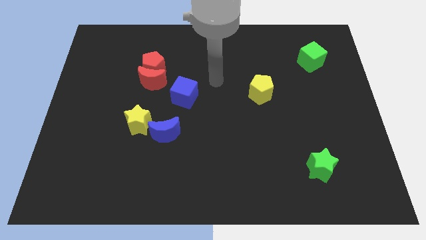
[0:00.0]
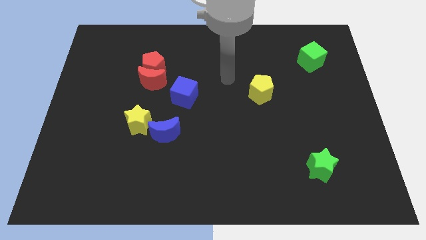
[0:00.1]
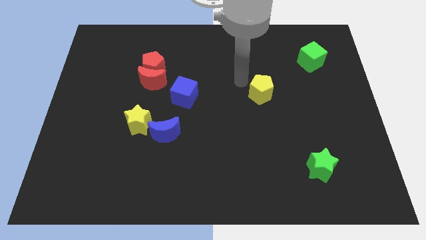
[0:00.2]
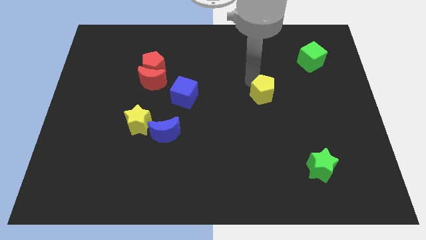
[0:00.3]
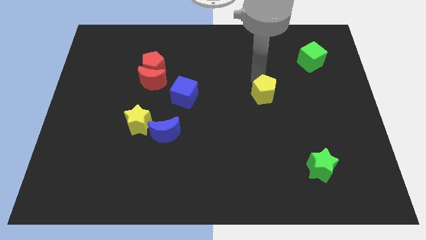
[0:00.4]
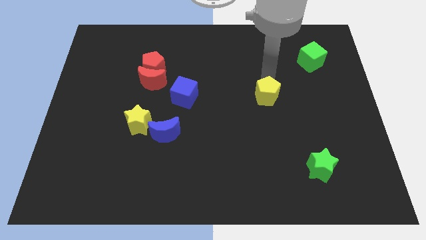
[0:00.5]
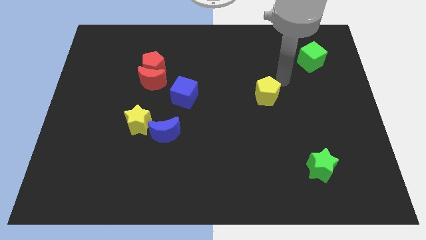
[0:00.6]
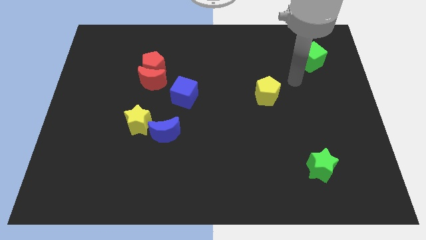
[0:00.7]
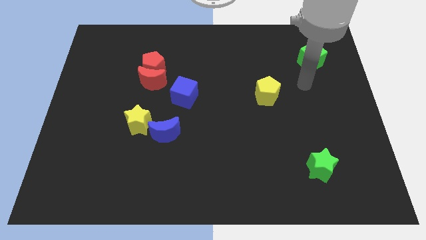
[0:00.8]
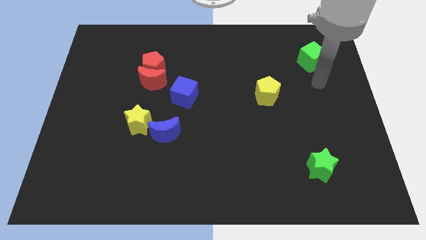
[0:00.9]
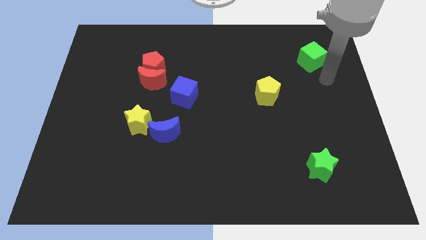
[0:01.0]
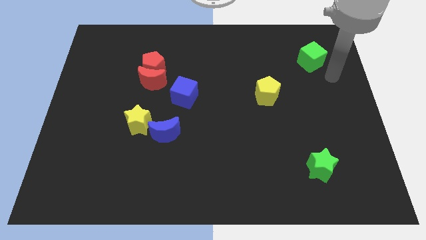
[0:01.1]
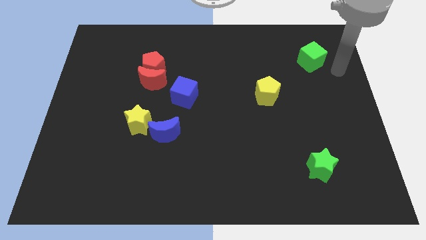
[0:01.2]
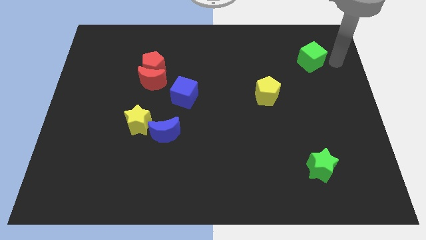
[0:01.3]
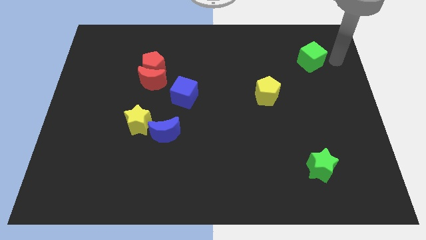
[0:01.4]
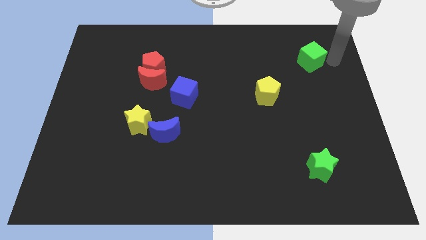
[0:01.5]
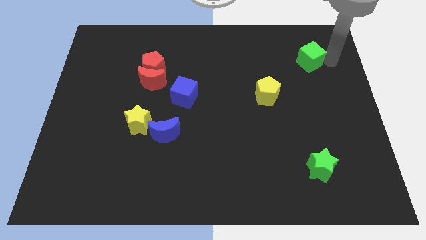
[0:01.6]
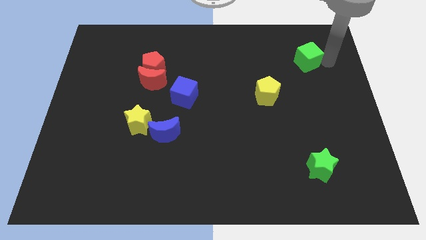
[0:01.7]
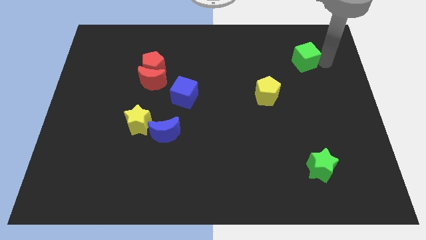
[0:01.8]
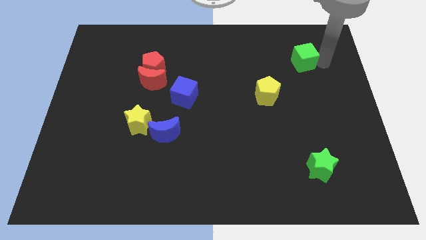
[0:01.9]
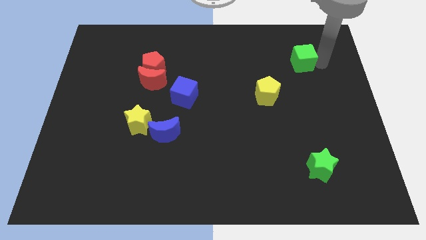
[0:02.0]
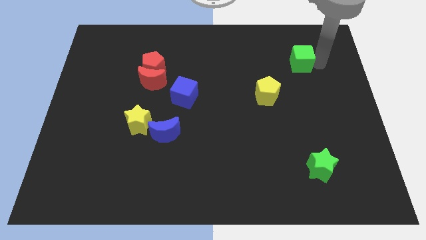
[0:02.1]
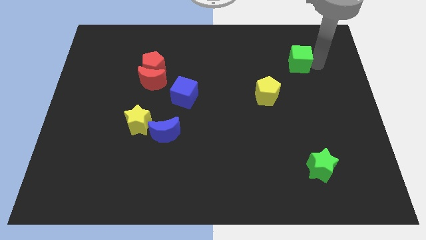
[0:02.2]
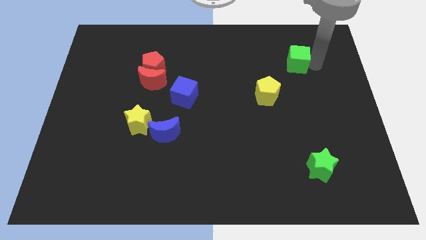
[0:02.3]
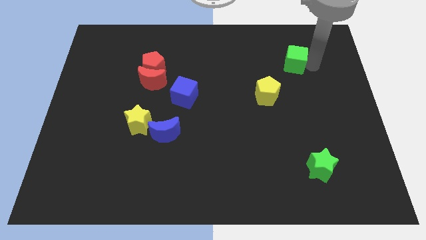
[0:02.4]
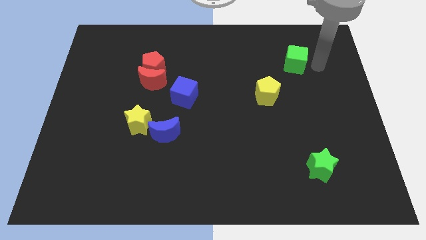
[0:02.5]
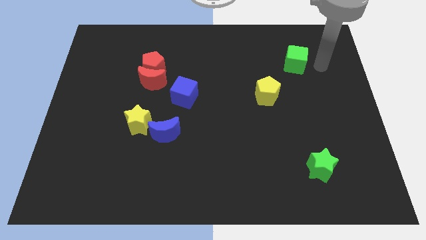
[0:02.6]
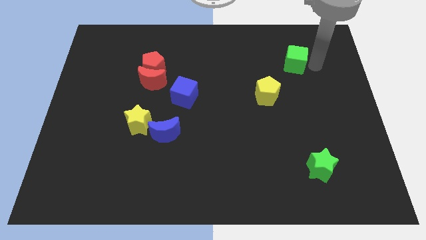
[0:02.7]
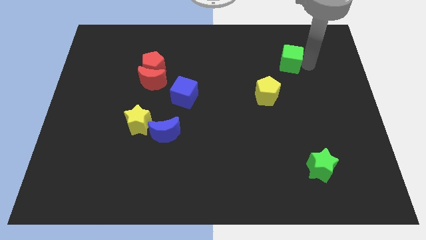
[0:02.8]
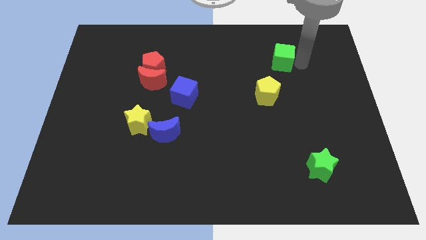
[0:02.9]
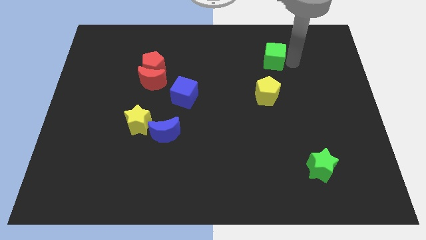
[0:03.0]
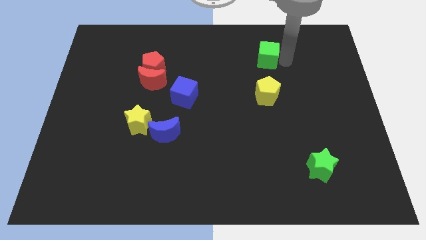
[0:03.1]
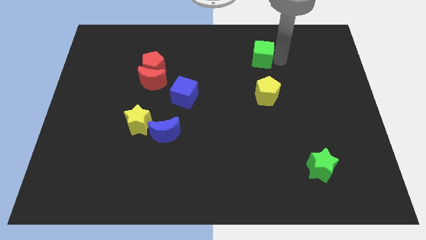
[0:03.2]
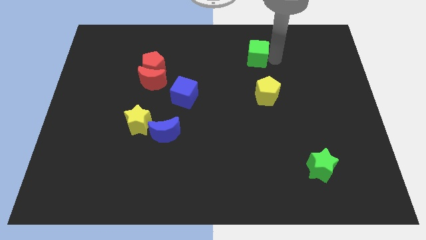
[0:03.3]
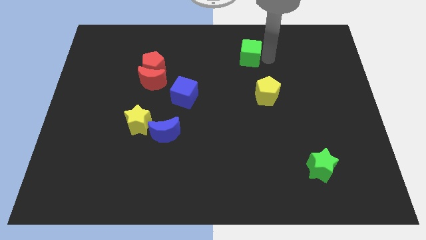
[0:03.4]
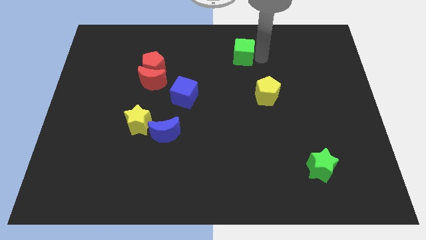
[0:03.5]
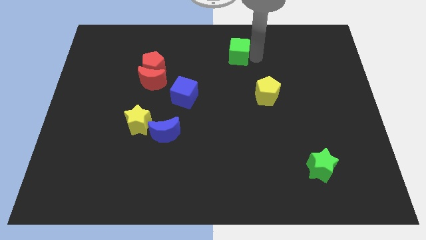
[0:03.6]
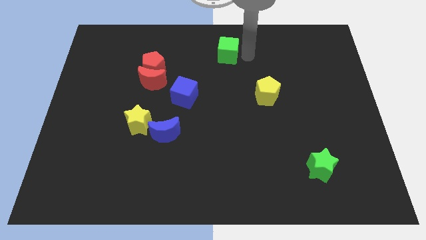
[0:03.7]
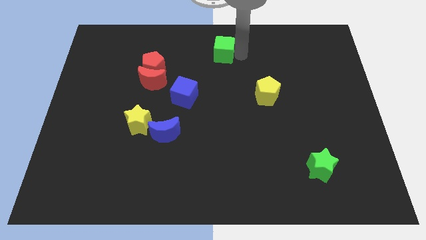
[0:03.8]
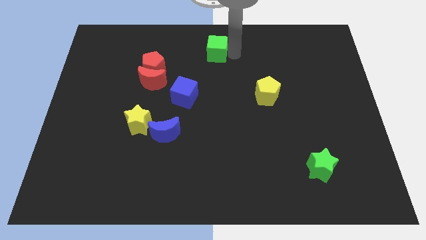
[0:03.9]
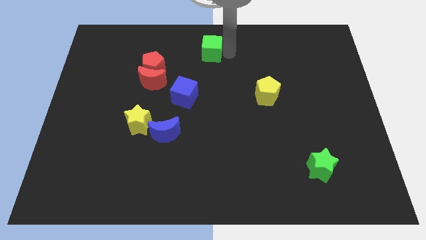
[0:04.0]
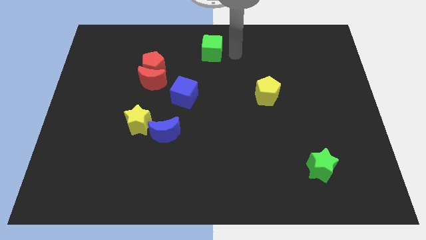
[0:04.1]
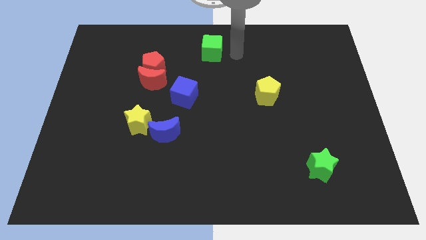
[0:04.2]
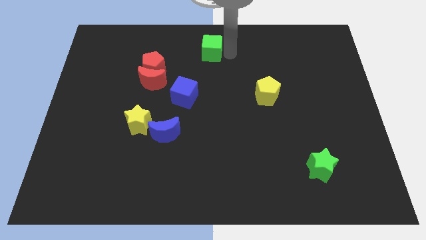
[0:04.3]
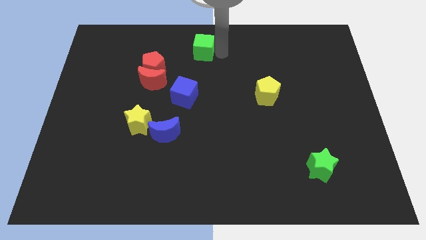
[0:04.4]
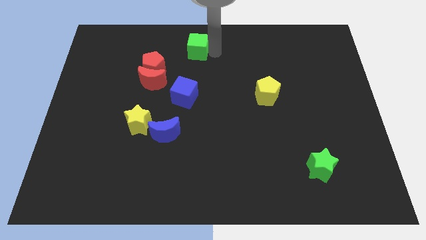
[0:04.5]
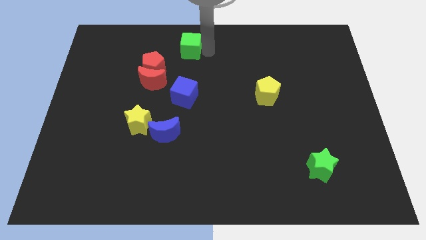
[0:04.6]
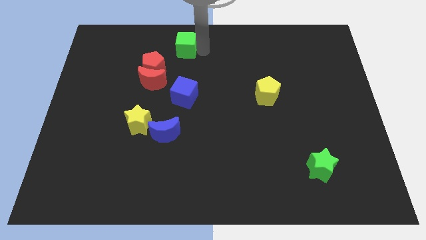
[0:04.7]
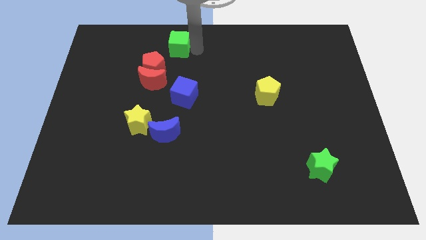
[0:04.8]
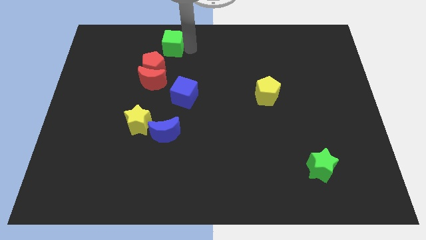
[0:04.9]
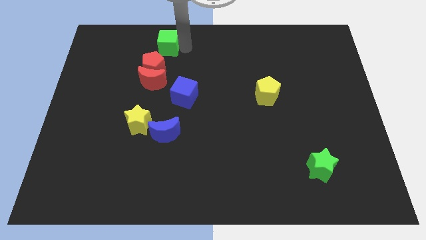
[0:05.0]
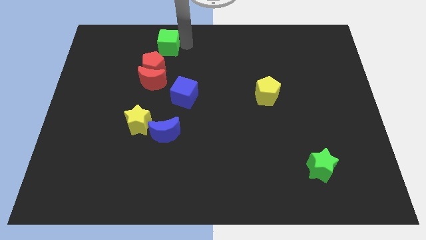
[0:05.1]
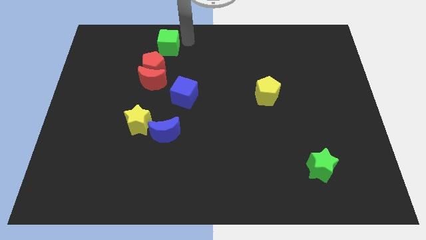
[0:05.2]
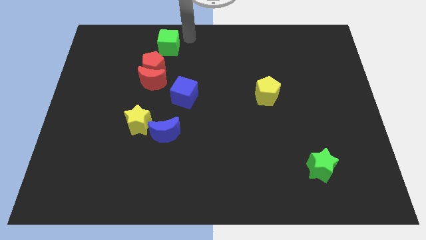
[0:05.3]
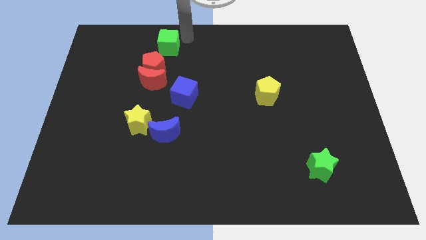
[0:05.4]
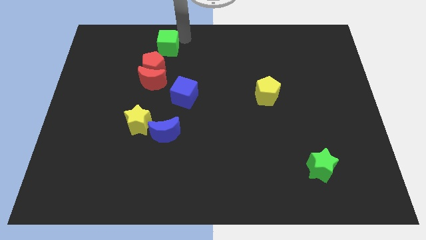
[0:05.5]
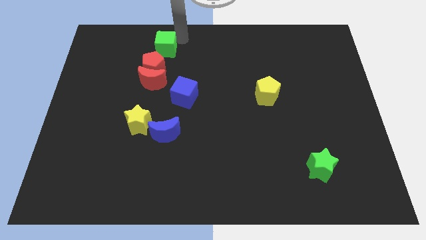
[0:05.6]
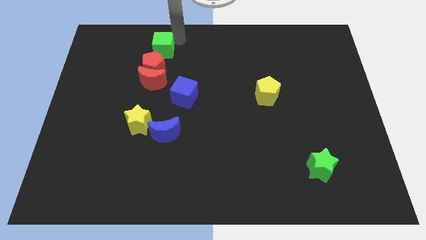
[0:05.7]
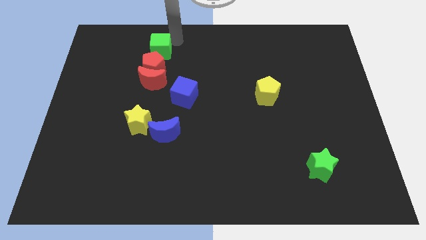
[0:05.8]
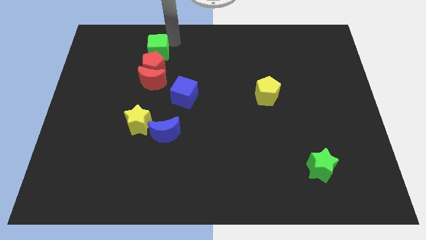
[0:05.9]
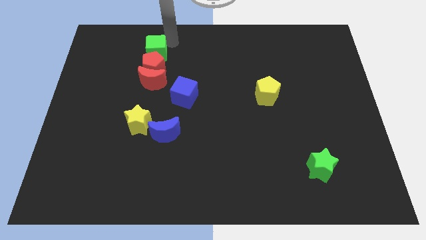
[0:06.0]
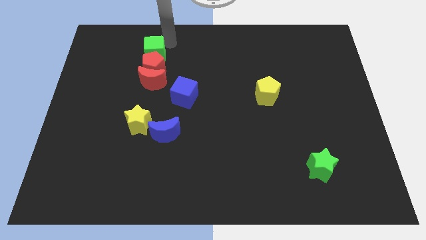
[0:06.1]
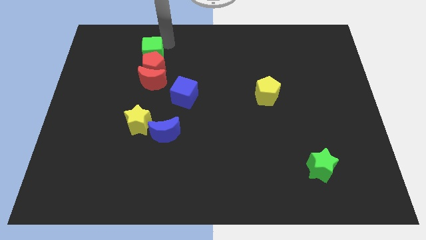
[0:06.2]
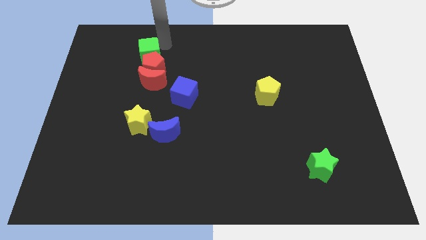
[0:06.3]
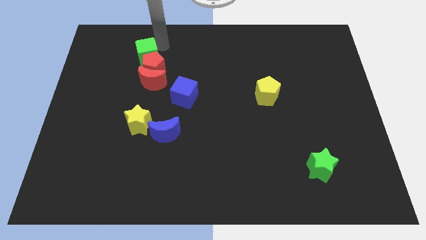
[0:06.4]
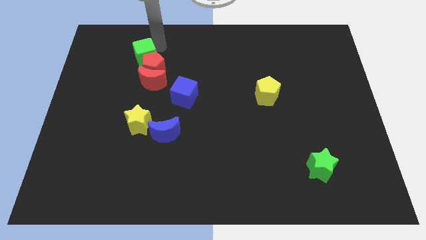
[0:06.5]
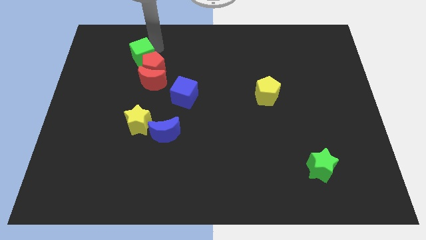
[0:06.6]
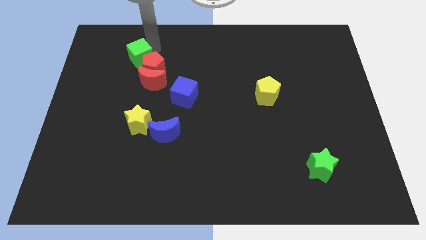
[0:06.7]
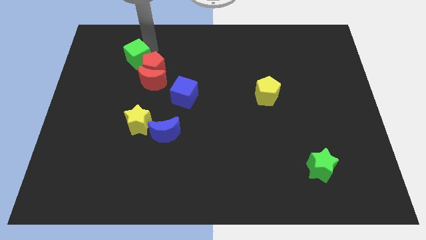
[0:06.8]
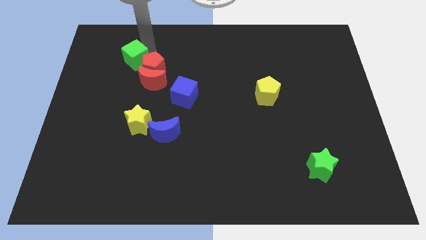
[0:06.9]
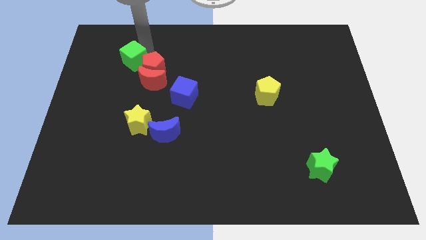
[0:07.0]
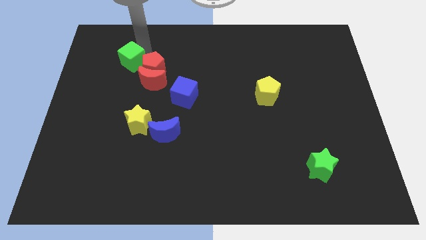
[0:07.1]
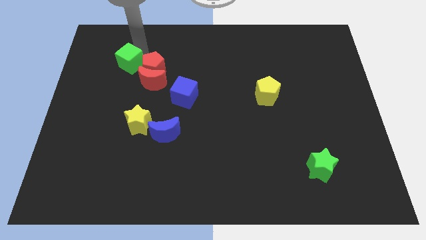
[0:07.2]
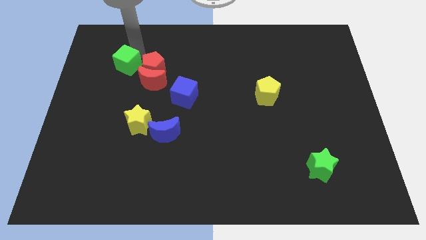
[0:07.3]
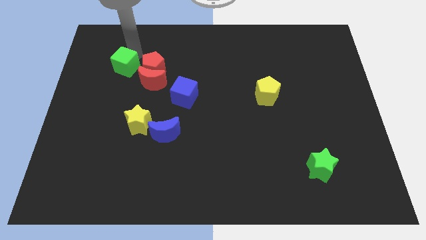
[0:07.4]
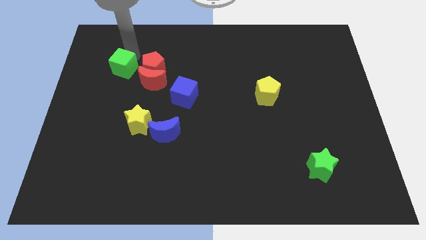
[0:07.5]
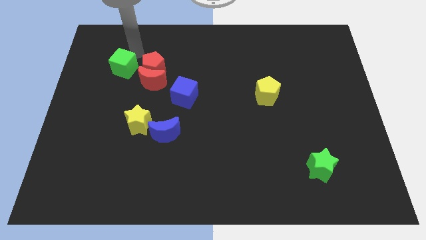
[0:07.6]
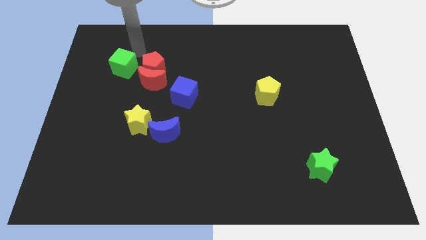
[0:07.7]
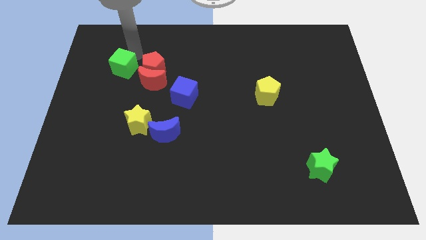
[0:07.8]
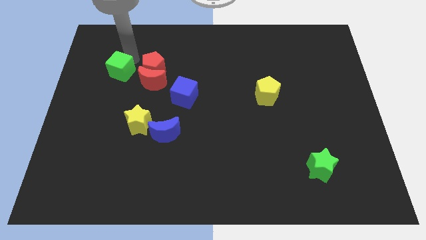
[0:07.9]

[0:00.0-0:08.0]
move the green cube left of the red moon
